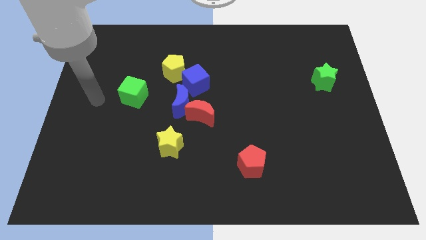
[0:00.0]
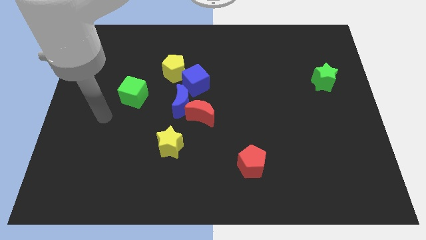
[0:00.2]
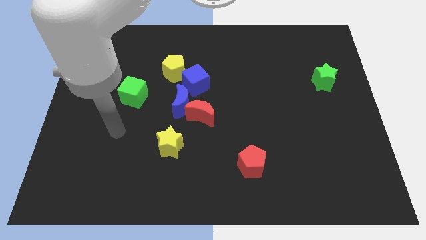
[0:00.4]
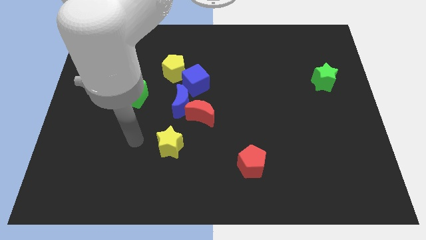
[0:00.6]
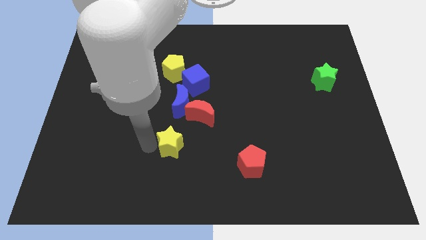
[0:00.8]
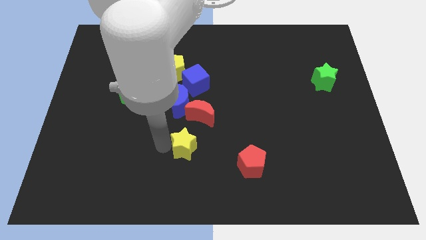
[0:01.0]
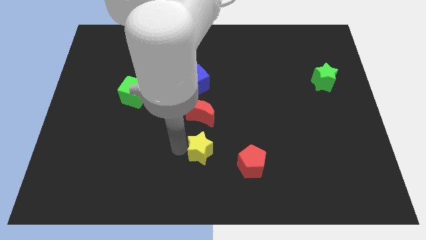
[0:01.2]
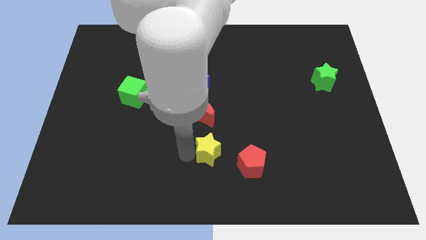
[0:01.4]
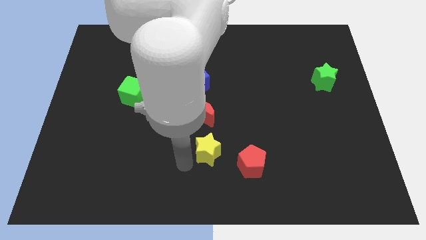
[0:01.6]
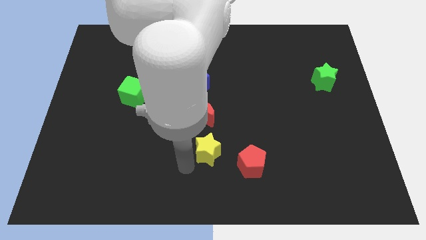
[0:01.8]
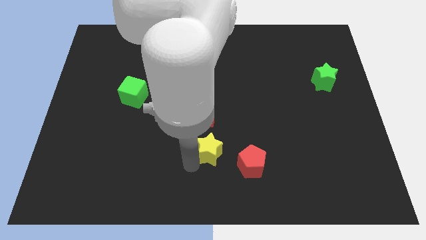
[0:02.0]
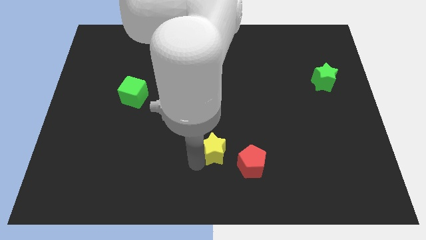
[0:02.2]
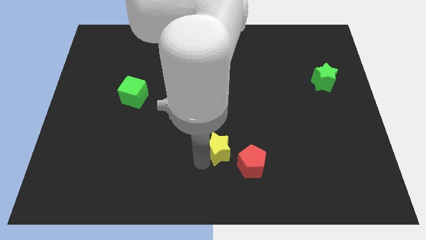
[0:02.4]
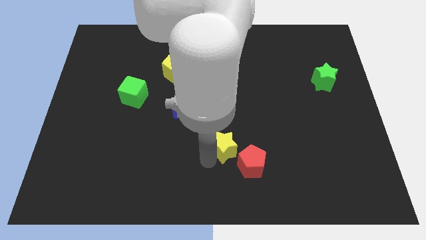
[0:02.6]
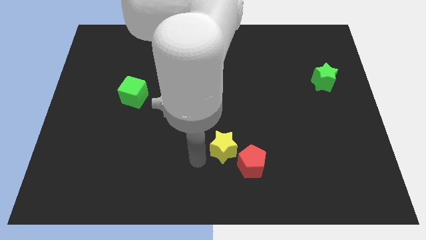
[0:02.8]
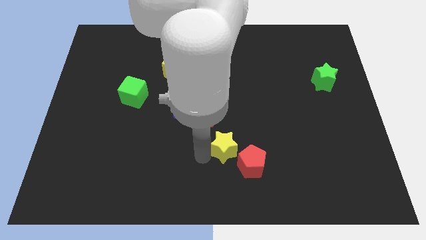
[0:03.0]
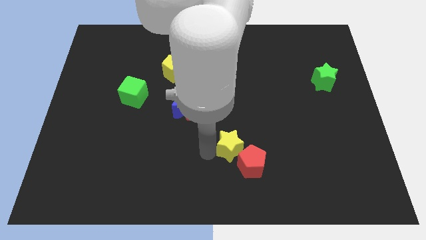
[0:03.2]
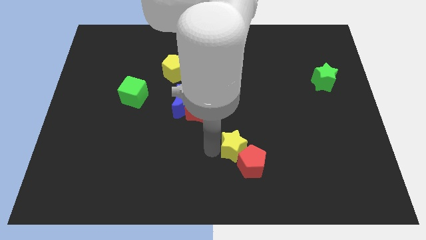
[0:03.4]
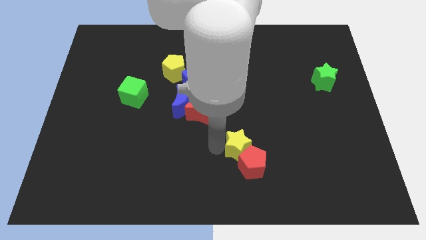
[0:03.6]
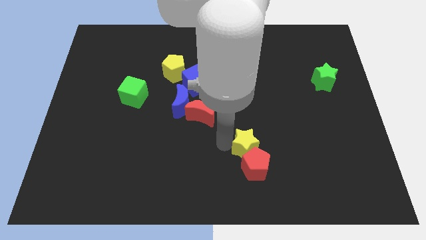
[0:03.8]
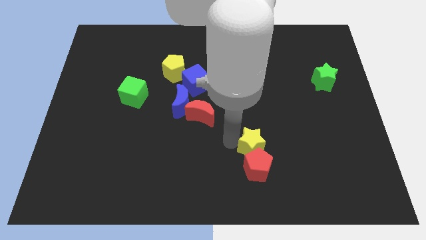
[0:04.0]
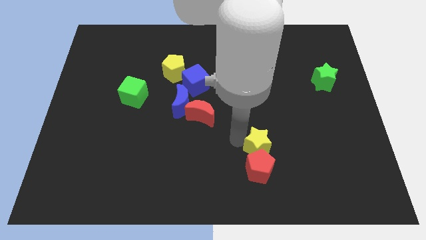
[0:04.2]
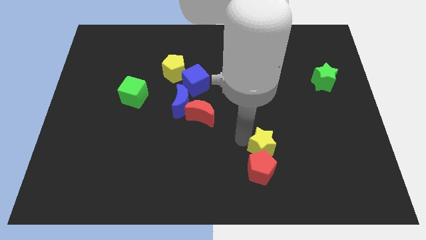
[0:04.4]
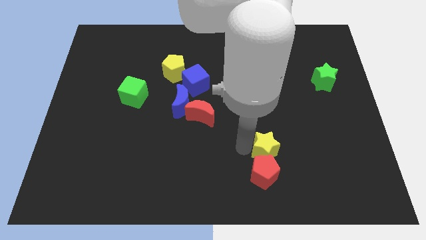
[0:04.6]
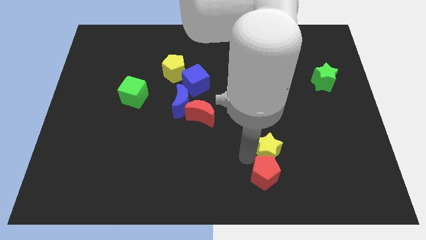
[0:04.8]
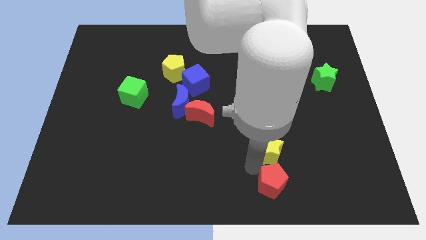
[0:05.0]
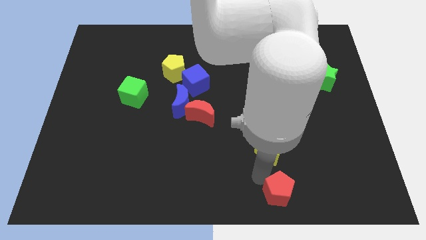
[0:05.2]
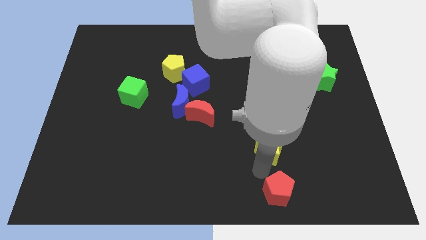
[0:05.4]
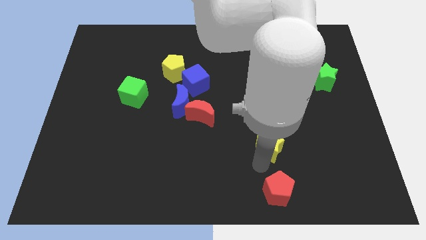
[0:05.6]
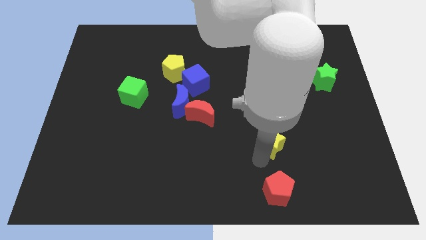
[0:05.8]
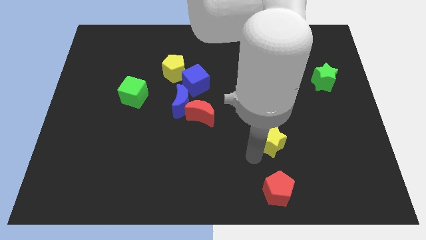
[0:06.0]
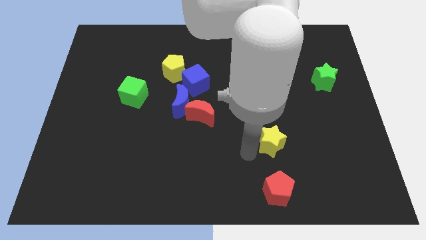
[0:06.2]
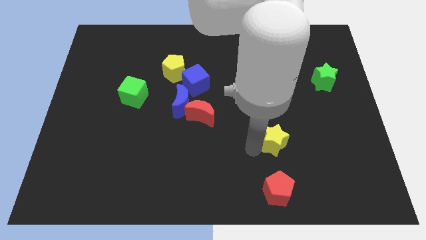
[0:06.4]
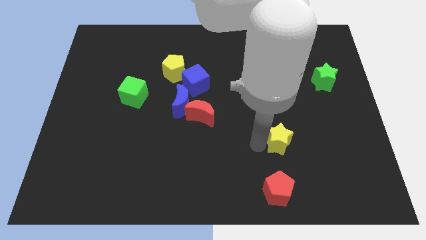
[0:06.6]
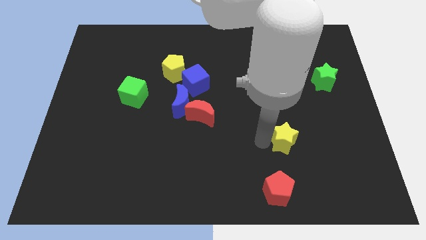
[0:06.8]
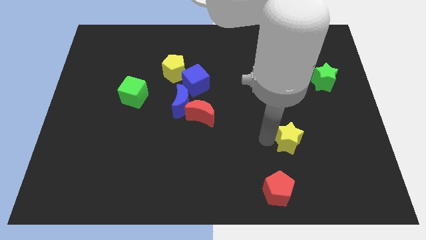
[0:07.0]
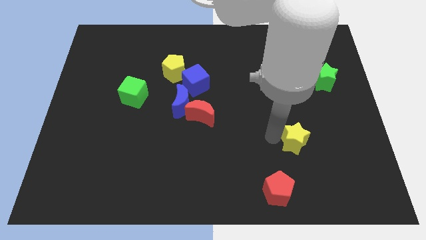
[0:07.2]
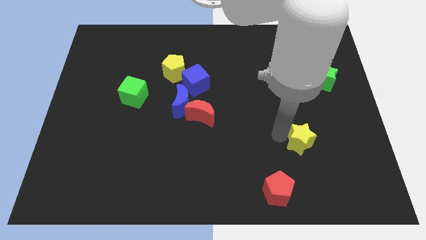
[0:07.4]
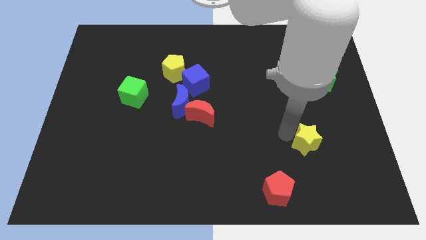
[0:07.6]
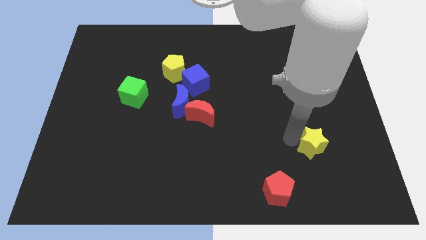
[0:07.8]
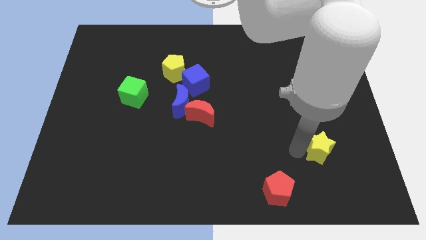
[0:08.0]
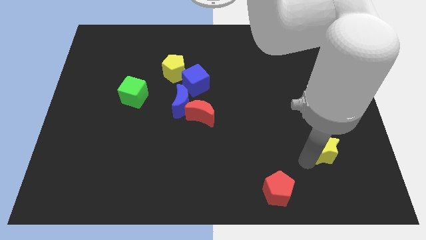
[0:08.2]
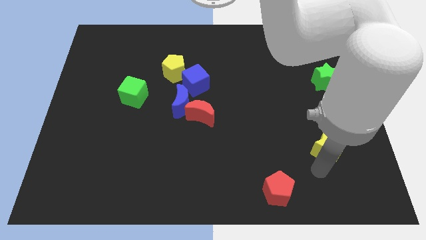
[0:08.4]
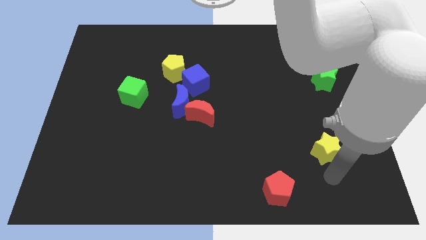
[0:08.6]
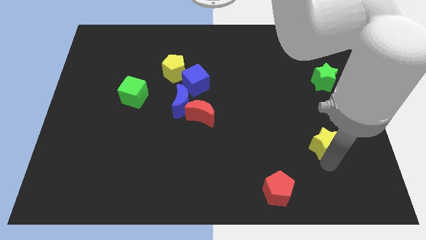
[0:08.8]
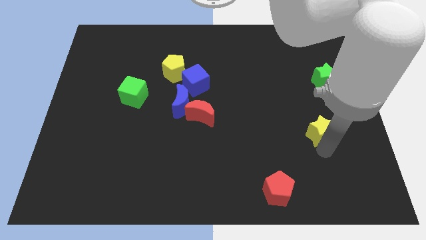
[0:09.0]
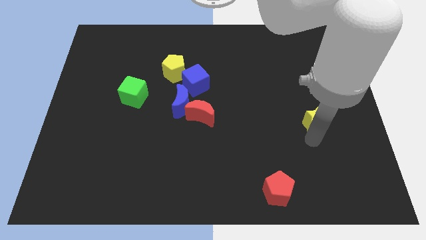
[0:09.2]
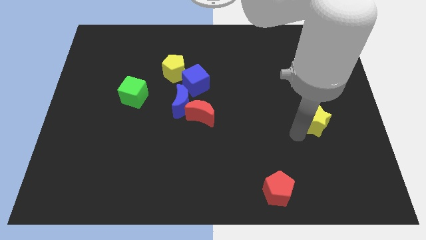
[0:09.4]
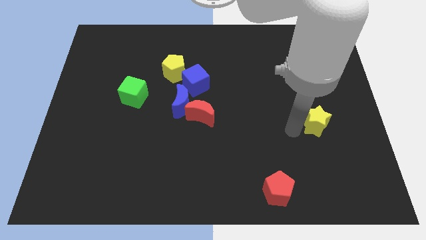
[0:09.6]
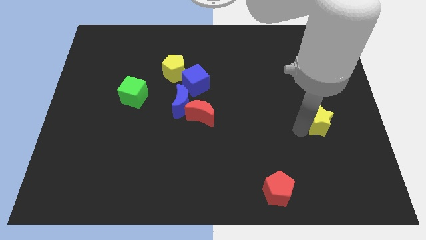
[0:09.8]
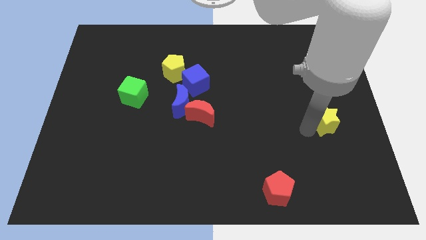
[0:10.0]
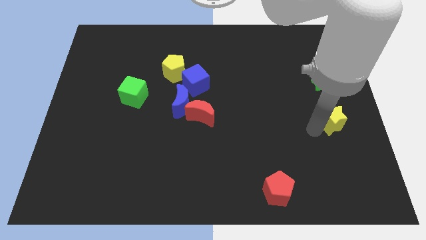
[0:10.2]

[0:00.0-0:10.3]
push the yellow star to the right side

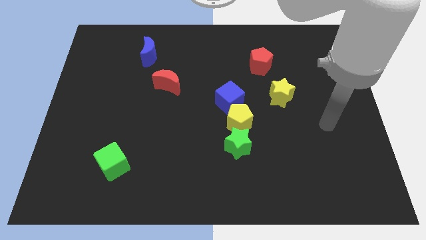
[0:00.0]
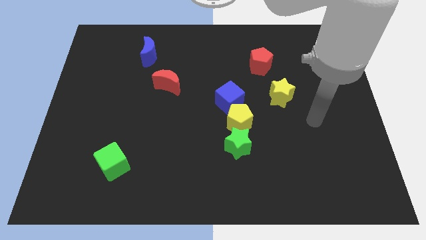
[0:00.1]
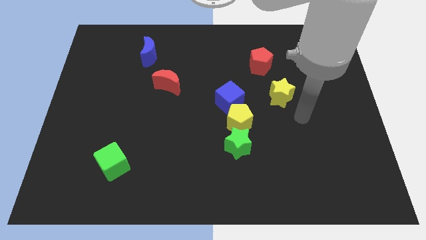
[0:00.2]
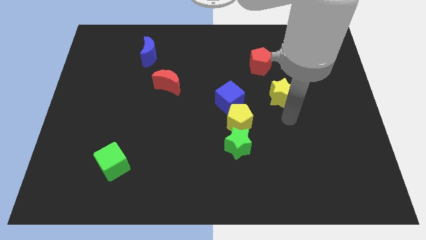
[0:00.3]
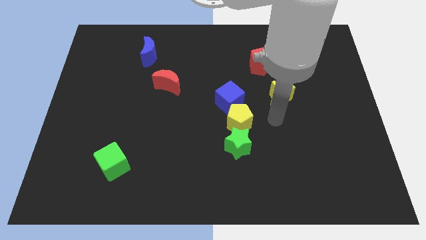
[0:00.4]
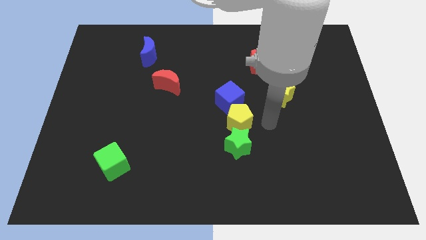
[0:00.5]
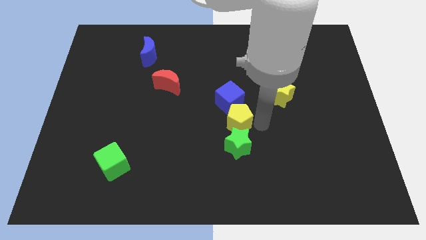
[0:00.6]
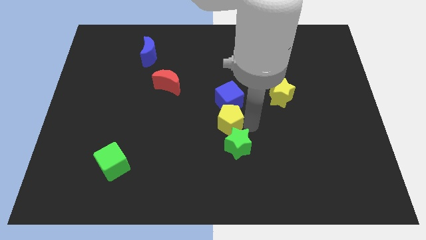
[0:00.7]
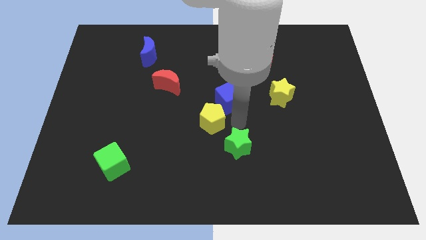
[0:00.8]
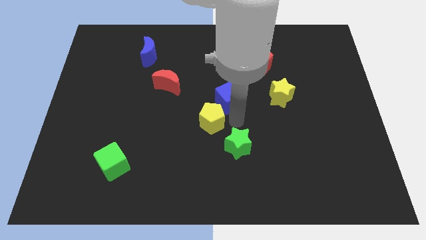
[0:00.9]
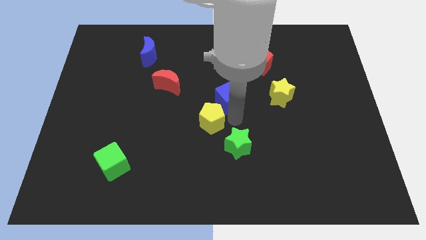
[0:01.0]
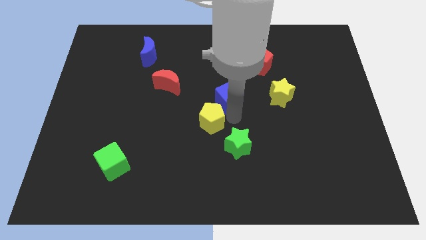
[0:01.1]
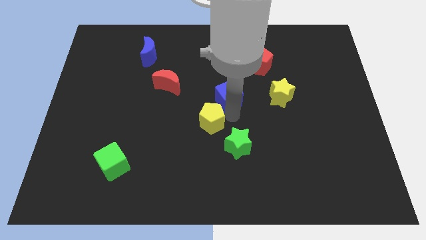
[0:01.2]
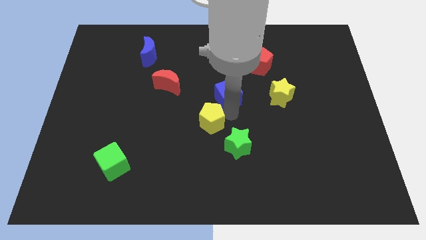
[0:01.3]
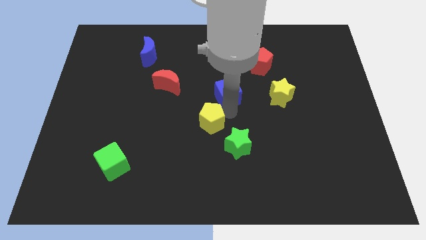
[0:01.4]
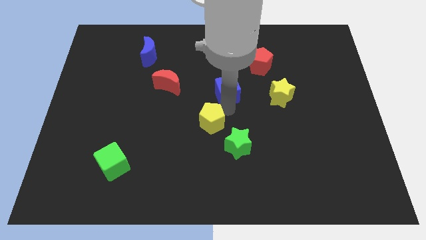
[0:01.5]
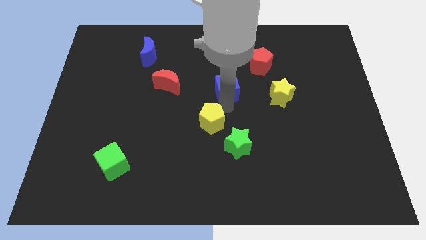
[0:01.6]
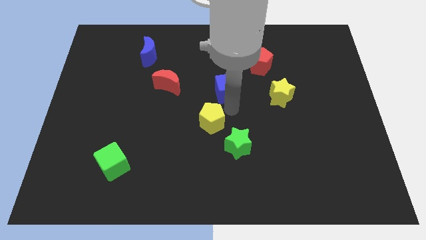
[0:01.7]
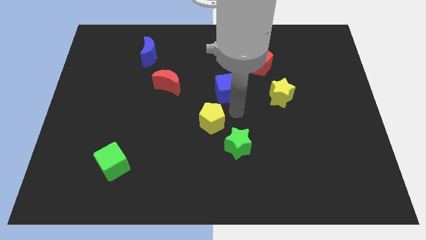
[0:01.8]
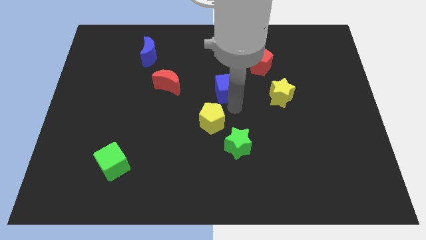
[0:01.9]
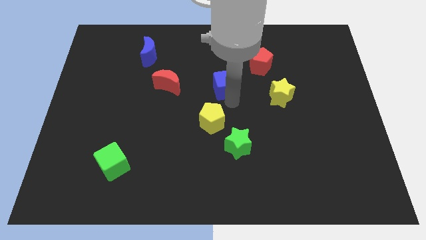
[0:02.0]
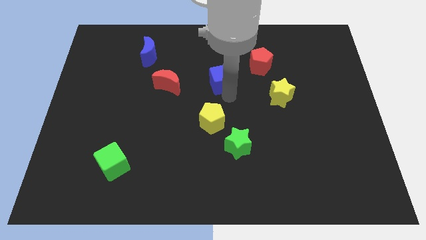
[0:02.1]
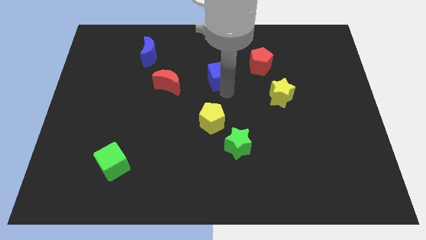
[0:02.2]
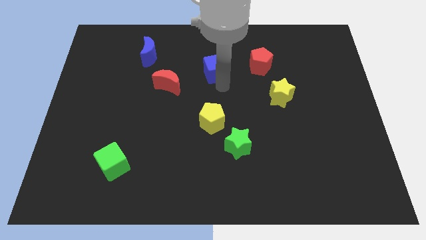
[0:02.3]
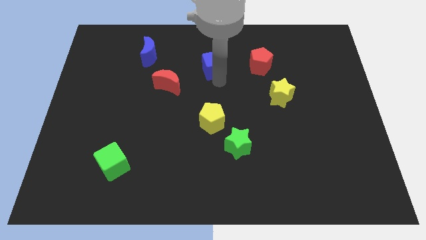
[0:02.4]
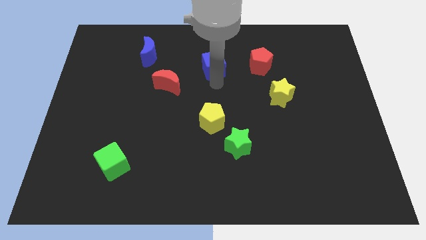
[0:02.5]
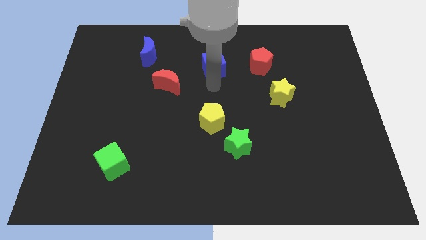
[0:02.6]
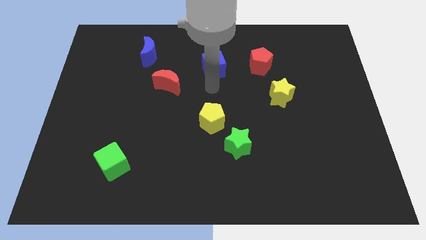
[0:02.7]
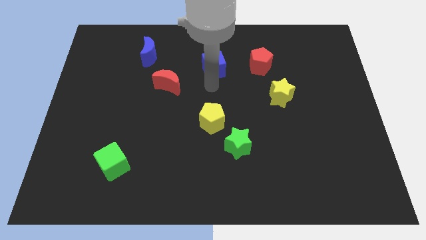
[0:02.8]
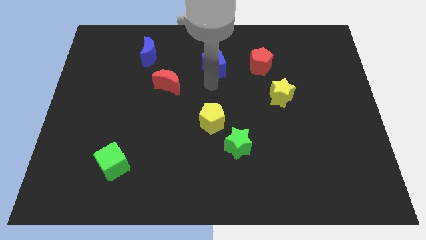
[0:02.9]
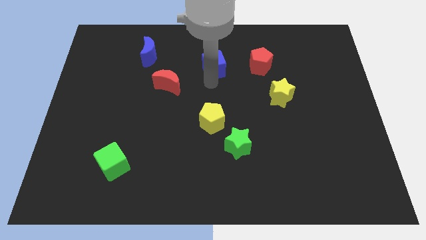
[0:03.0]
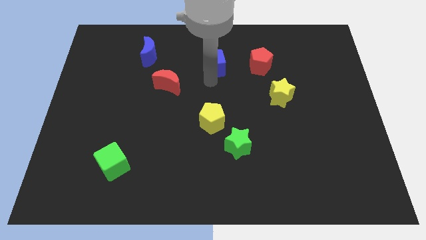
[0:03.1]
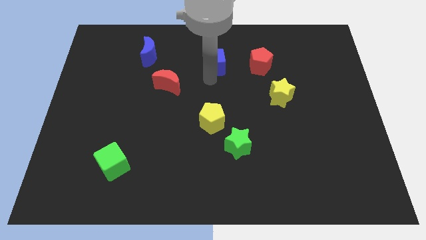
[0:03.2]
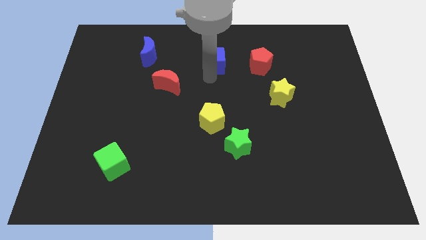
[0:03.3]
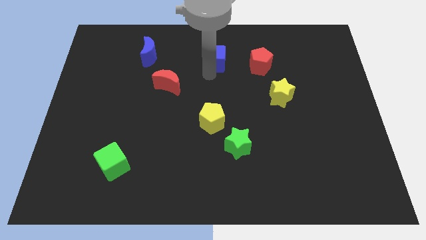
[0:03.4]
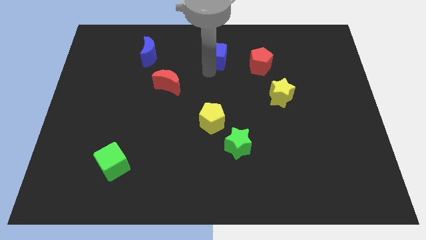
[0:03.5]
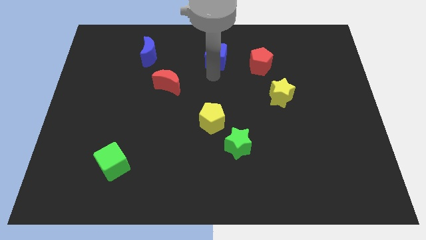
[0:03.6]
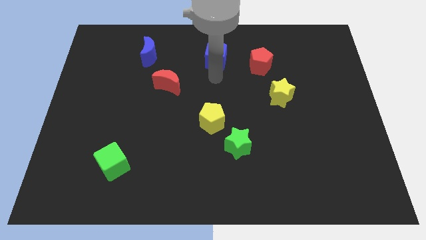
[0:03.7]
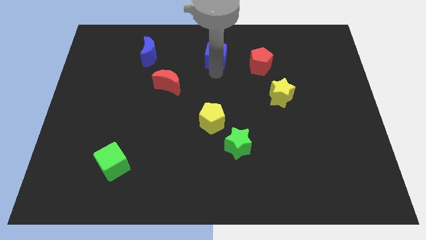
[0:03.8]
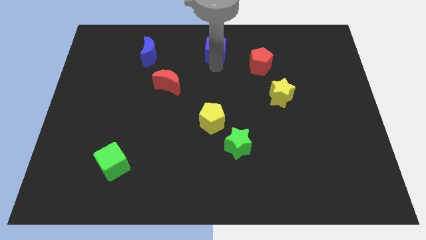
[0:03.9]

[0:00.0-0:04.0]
put the blue cube to the top side
